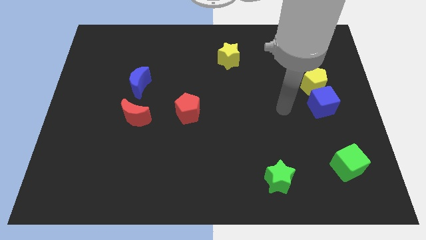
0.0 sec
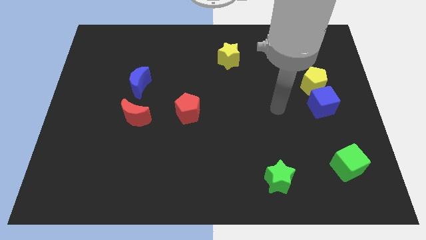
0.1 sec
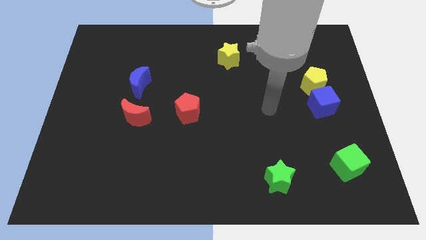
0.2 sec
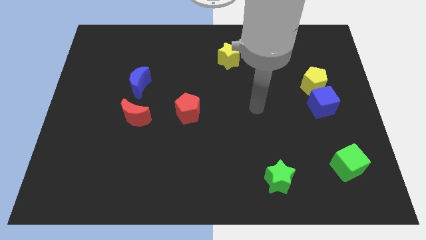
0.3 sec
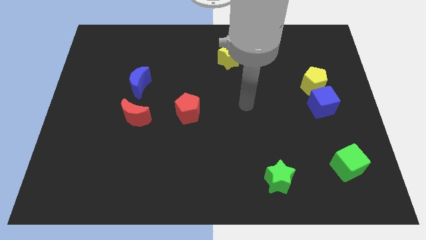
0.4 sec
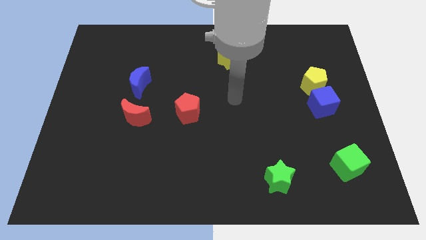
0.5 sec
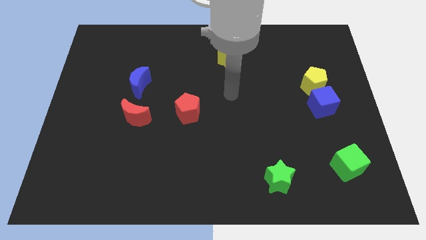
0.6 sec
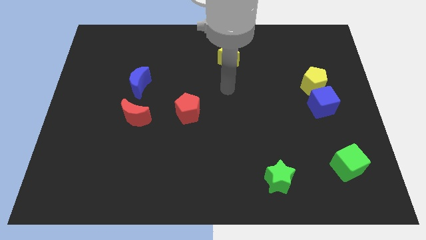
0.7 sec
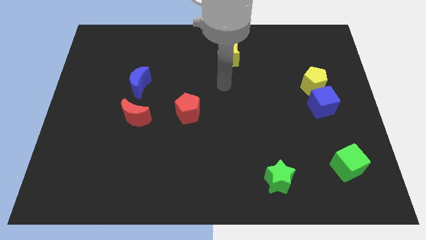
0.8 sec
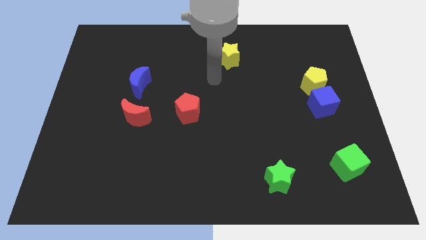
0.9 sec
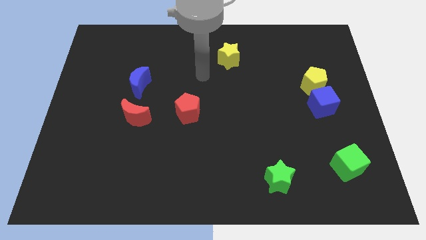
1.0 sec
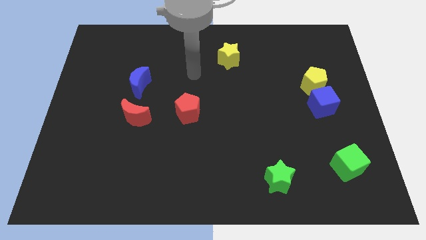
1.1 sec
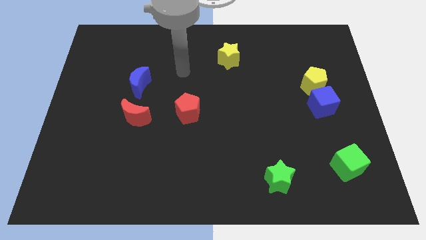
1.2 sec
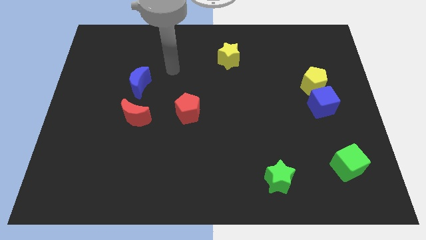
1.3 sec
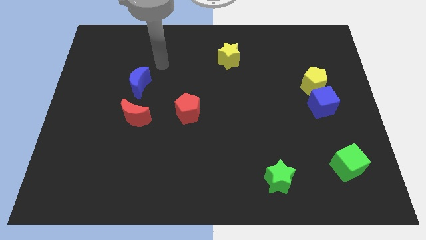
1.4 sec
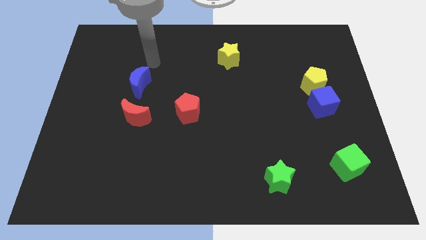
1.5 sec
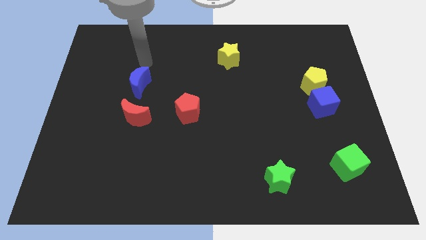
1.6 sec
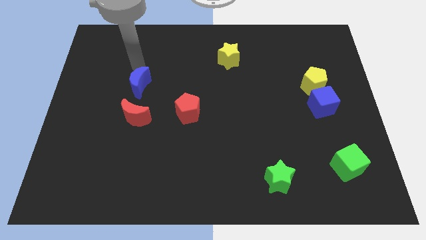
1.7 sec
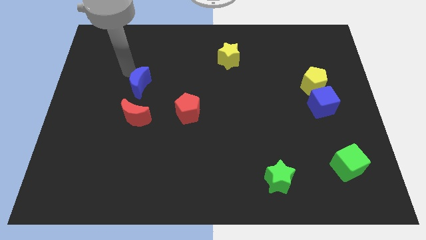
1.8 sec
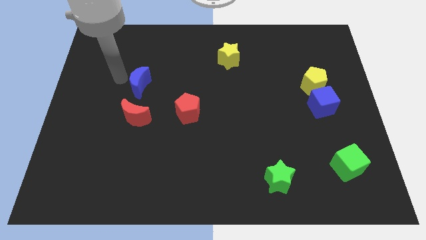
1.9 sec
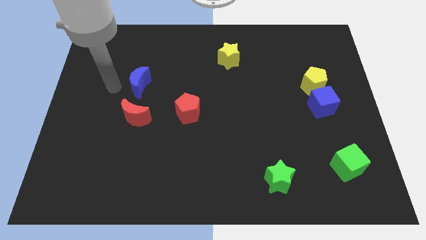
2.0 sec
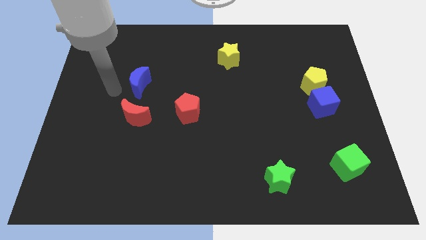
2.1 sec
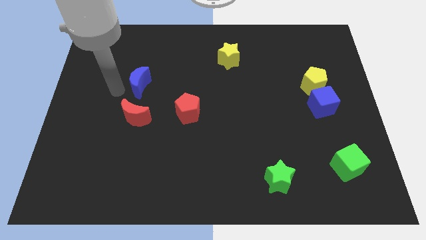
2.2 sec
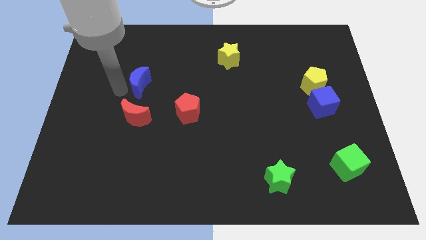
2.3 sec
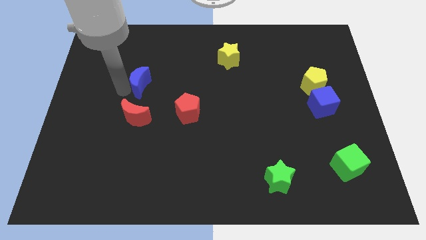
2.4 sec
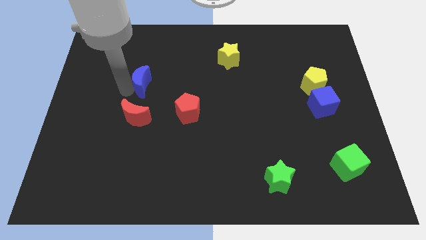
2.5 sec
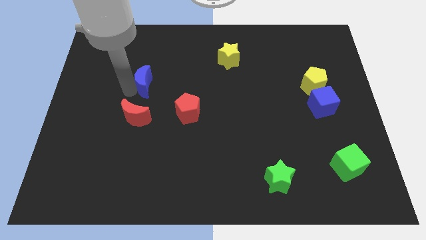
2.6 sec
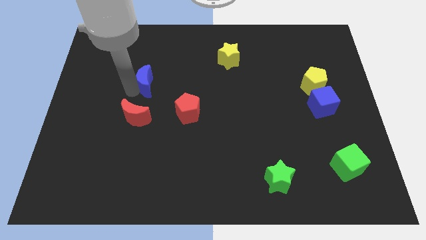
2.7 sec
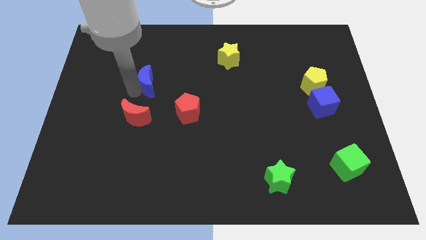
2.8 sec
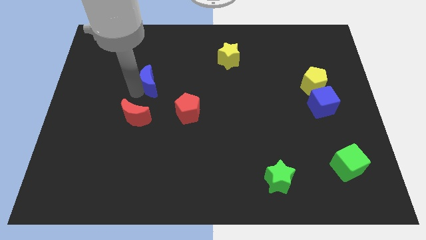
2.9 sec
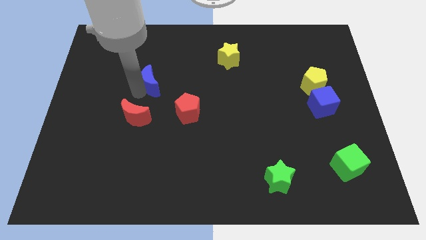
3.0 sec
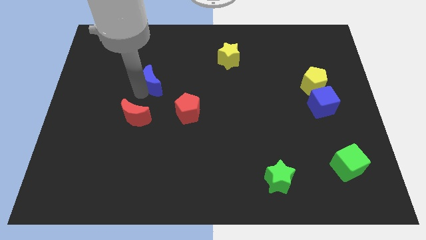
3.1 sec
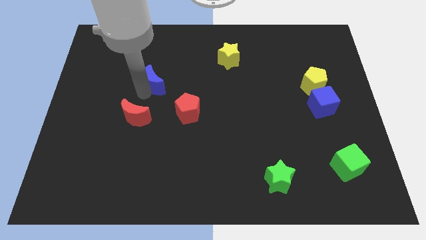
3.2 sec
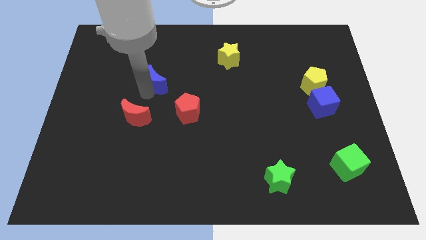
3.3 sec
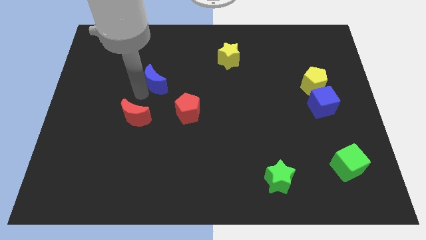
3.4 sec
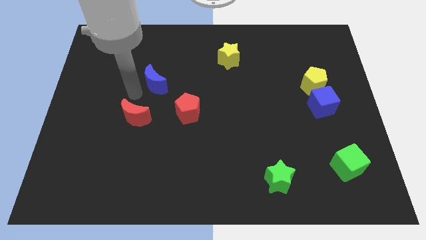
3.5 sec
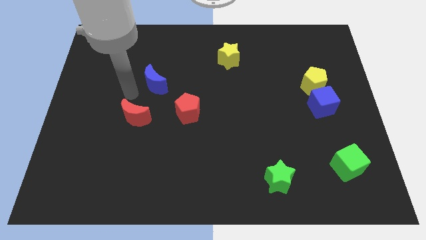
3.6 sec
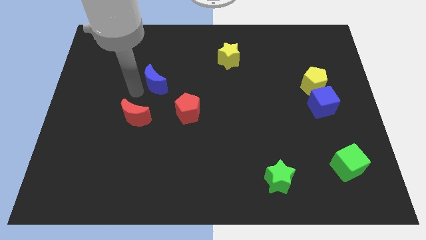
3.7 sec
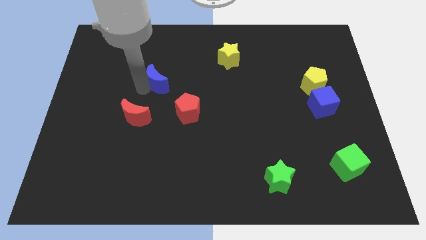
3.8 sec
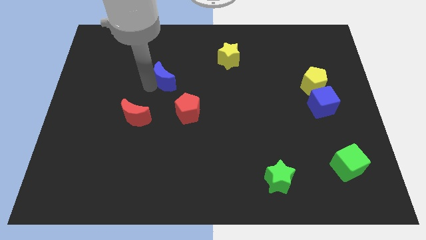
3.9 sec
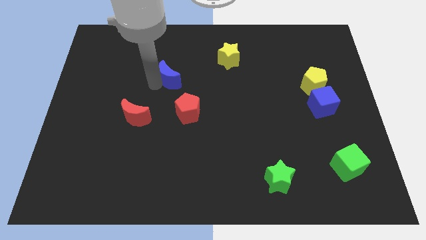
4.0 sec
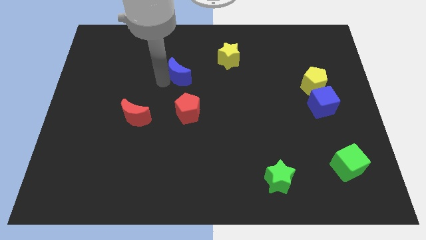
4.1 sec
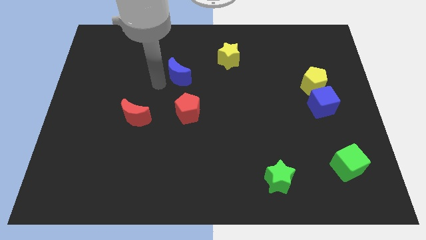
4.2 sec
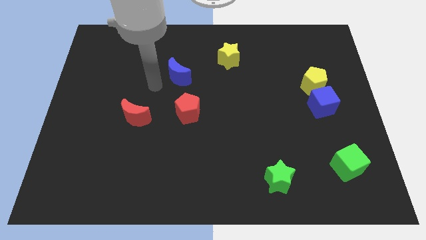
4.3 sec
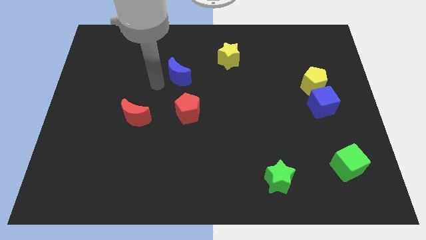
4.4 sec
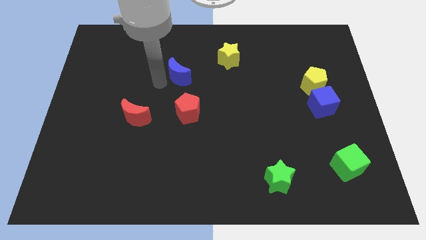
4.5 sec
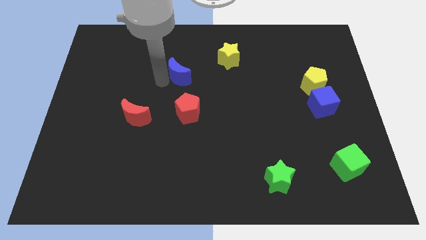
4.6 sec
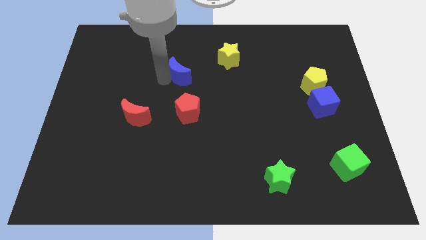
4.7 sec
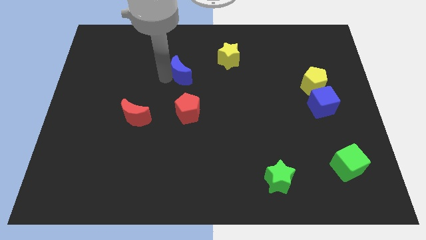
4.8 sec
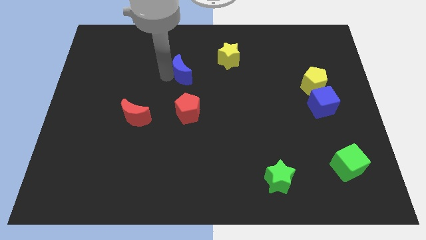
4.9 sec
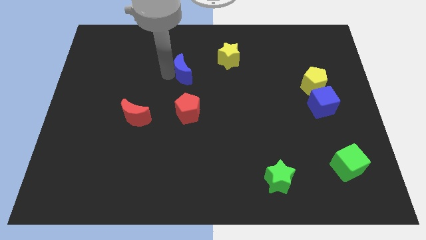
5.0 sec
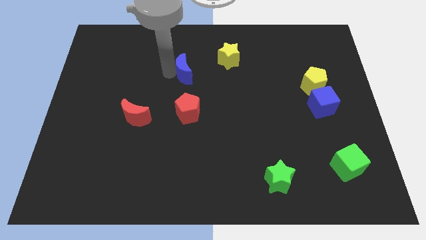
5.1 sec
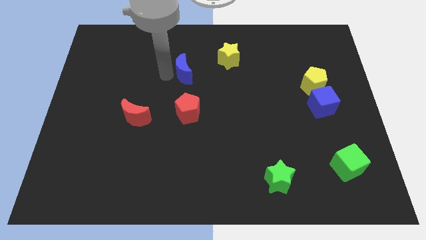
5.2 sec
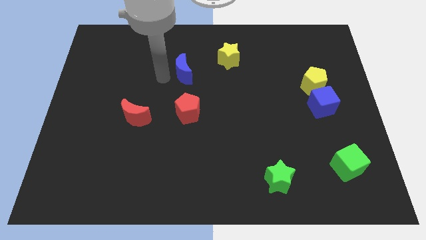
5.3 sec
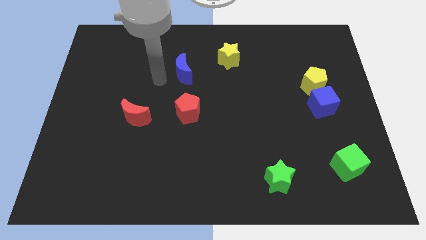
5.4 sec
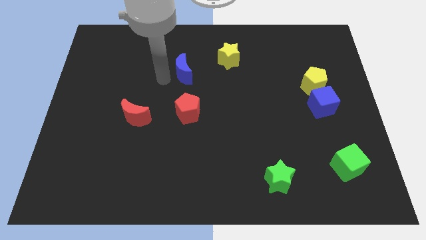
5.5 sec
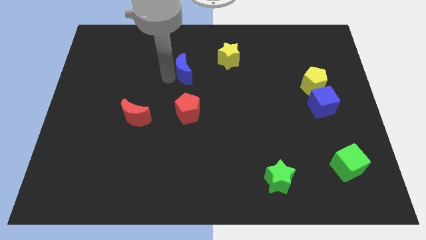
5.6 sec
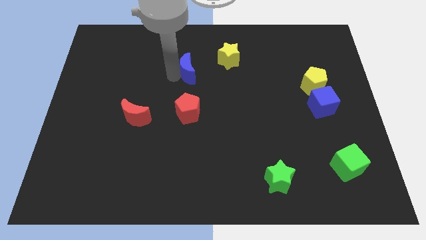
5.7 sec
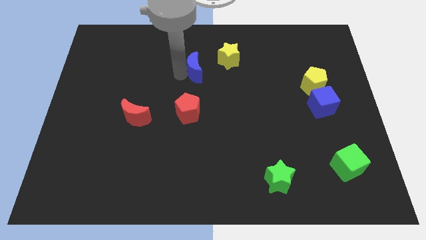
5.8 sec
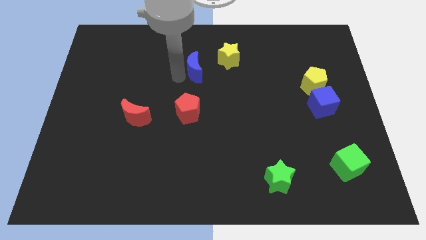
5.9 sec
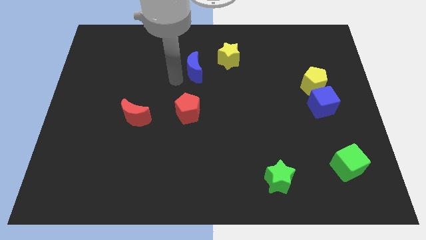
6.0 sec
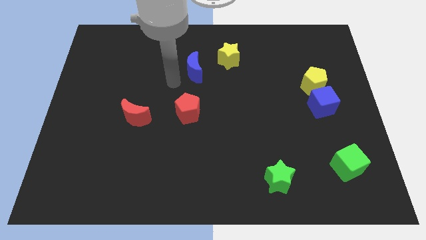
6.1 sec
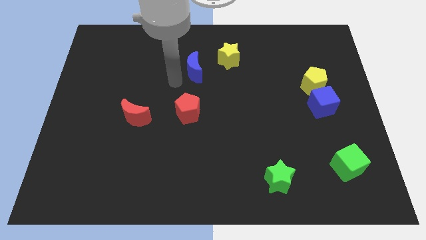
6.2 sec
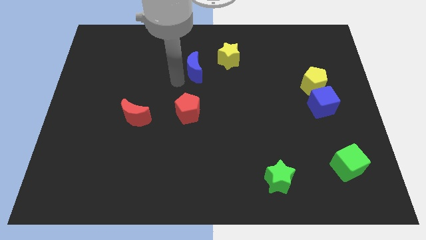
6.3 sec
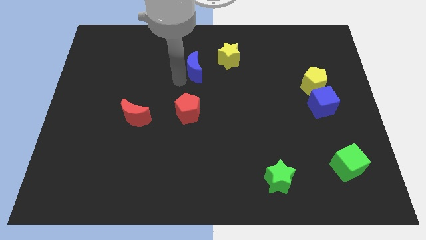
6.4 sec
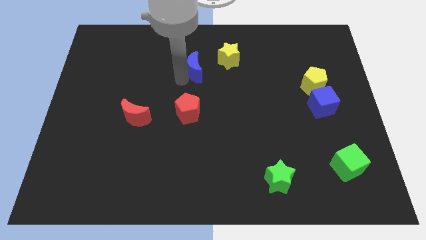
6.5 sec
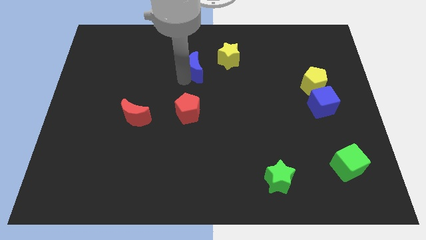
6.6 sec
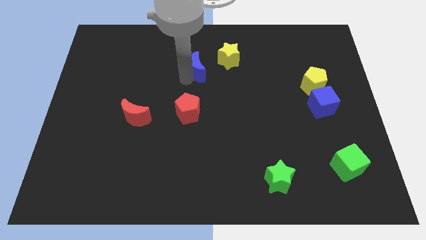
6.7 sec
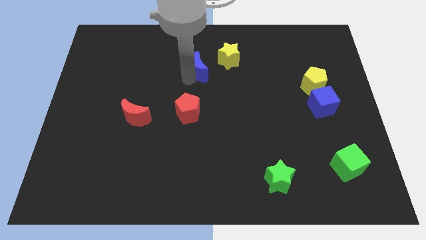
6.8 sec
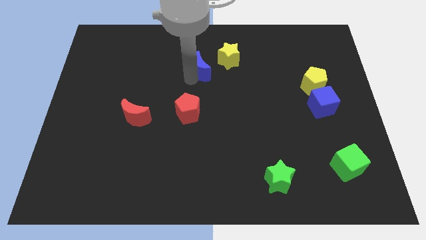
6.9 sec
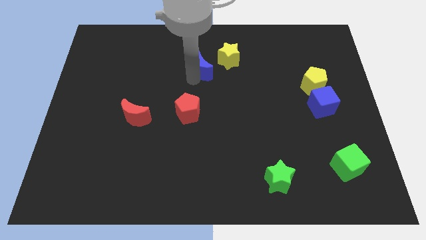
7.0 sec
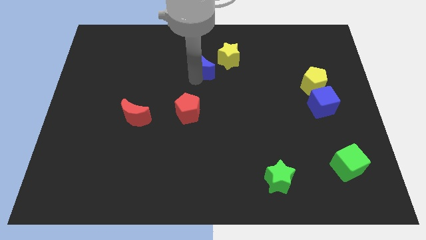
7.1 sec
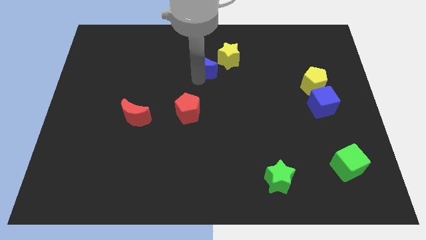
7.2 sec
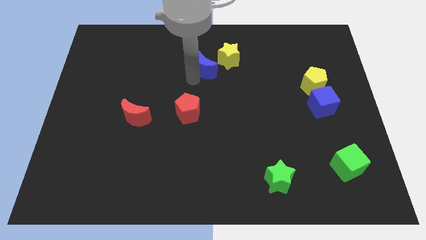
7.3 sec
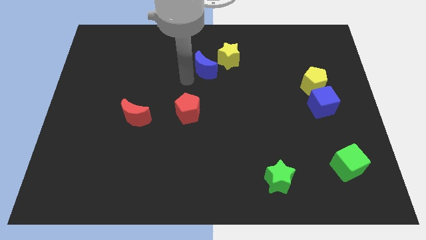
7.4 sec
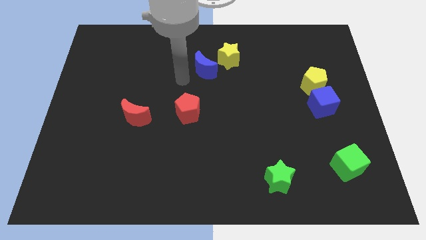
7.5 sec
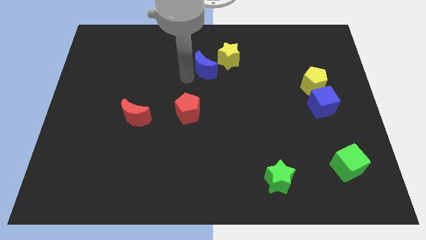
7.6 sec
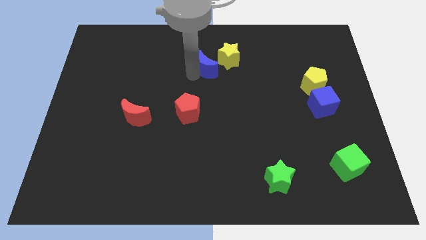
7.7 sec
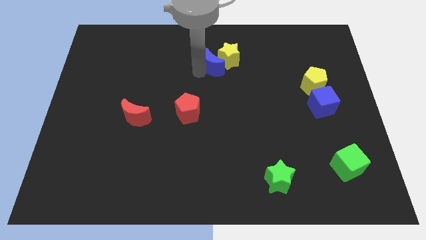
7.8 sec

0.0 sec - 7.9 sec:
push the blue moon close to the yellow star
